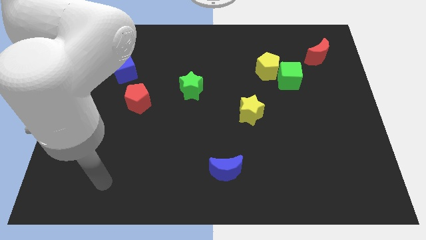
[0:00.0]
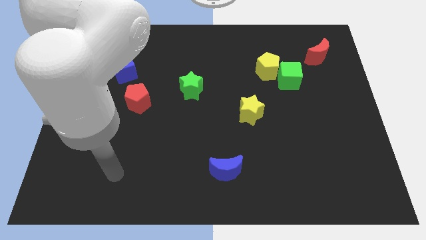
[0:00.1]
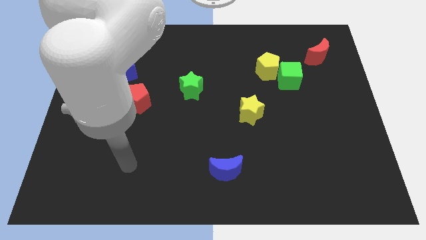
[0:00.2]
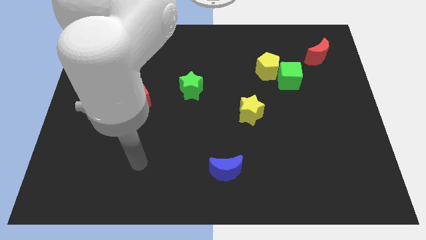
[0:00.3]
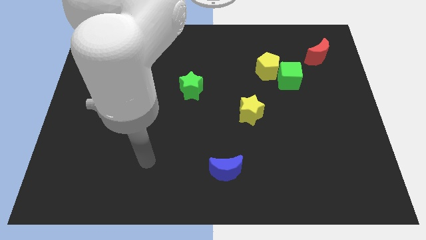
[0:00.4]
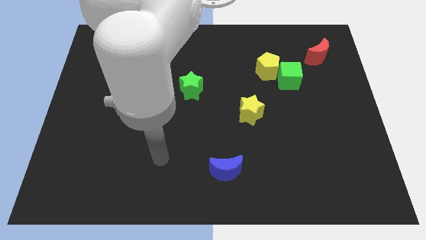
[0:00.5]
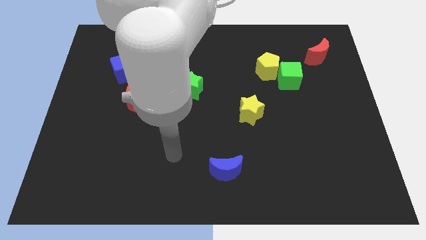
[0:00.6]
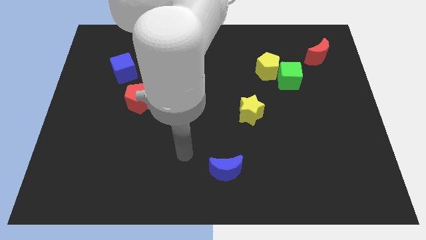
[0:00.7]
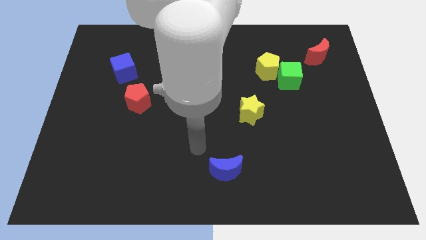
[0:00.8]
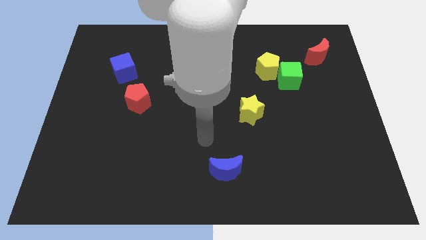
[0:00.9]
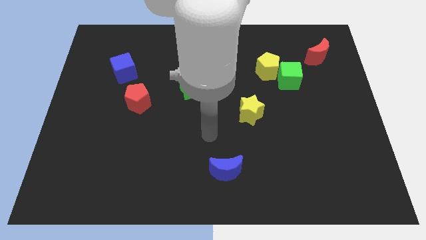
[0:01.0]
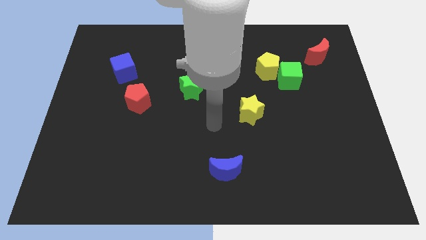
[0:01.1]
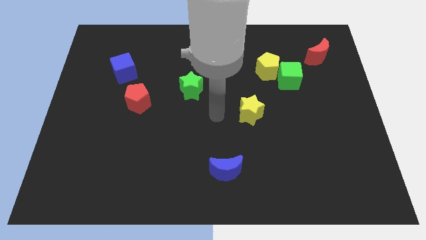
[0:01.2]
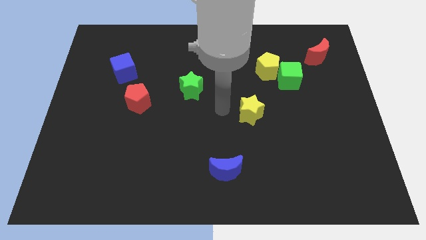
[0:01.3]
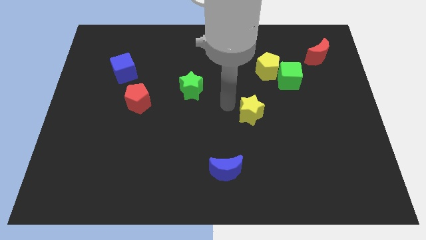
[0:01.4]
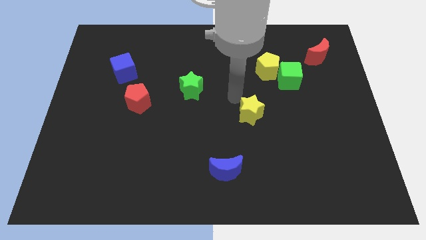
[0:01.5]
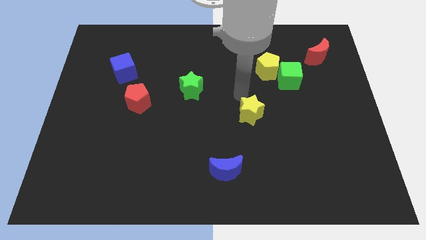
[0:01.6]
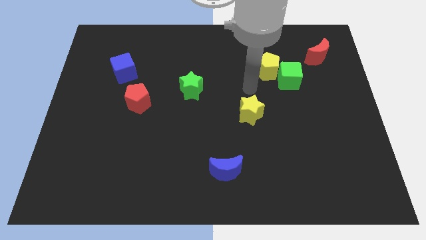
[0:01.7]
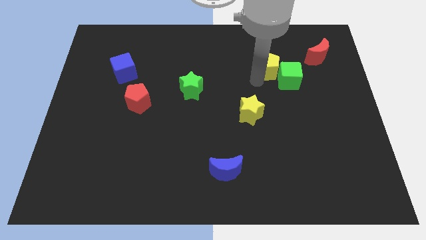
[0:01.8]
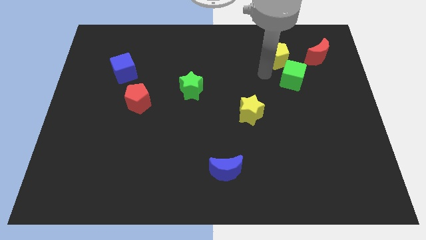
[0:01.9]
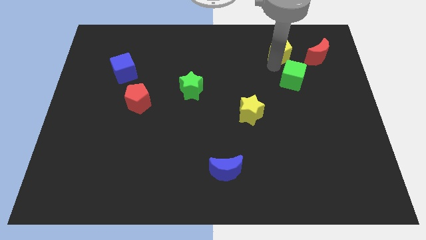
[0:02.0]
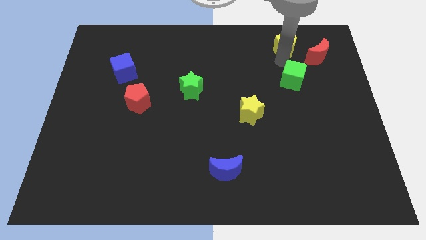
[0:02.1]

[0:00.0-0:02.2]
separate the green cube from the yellow pentagon

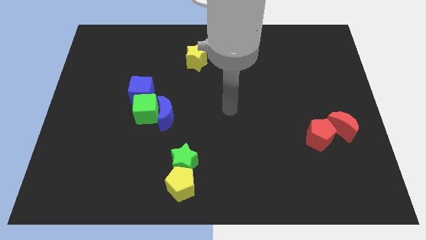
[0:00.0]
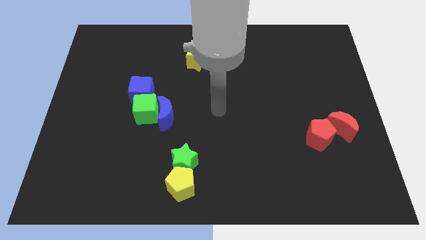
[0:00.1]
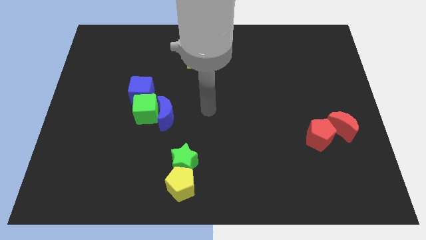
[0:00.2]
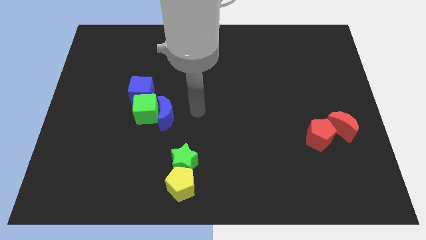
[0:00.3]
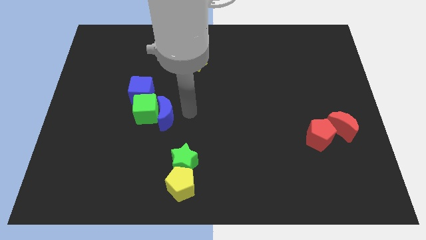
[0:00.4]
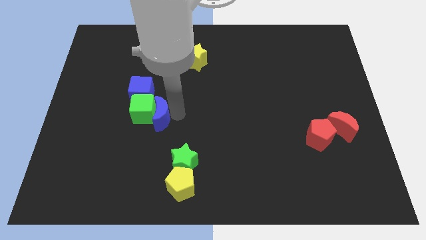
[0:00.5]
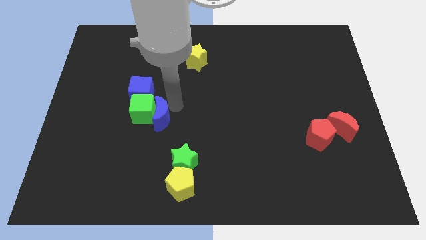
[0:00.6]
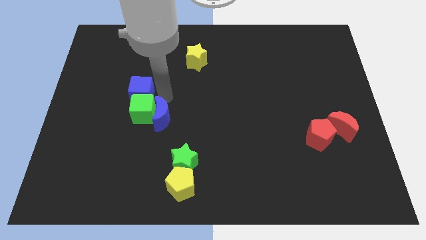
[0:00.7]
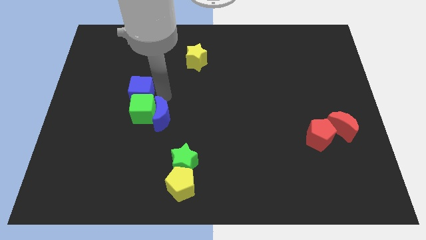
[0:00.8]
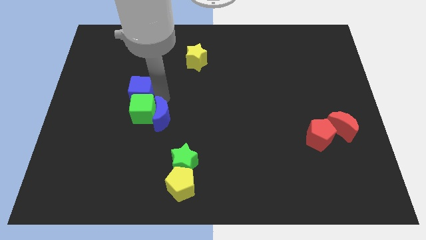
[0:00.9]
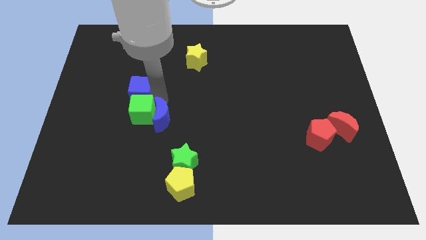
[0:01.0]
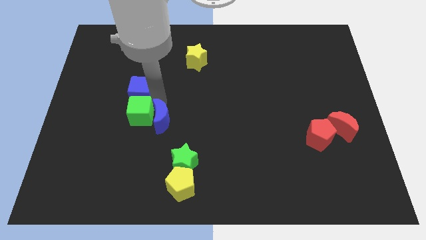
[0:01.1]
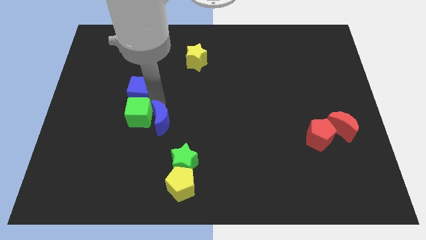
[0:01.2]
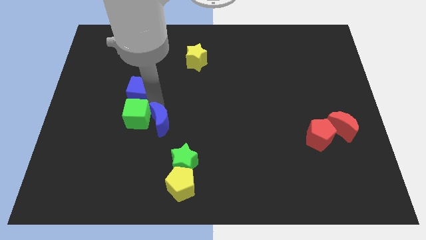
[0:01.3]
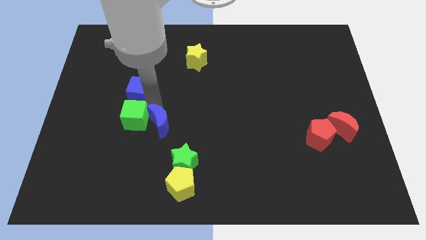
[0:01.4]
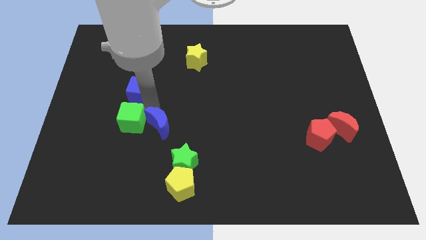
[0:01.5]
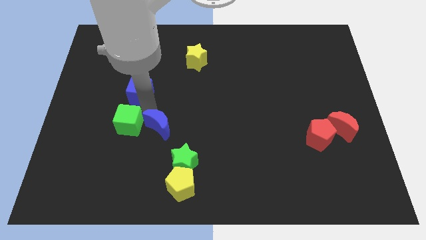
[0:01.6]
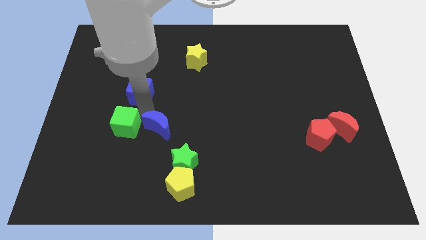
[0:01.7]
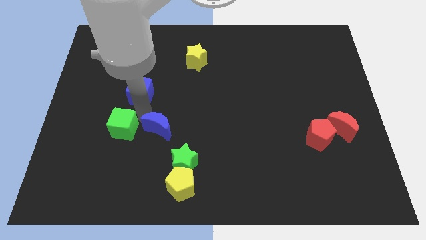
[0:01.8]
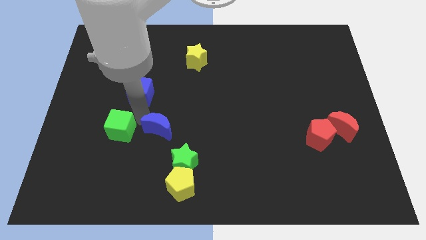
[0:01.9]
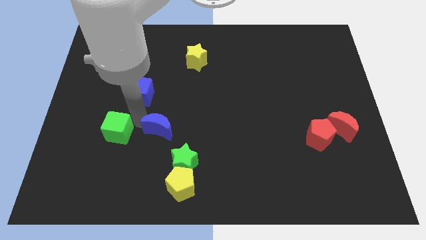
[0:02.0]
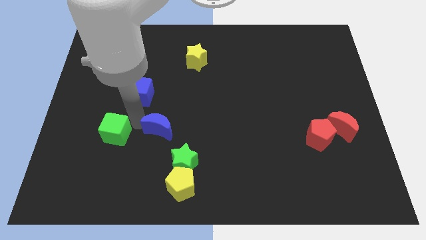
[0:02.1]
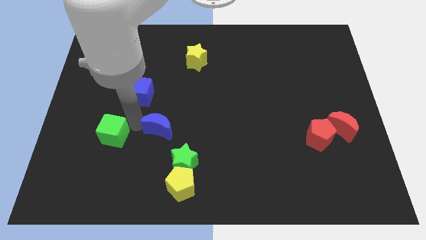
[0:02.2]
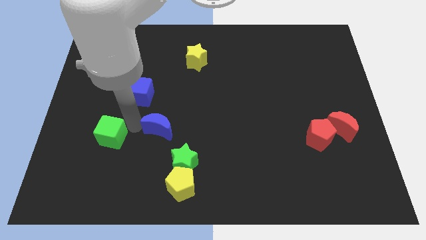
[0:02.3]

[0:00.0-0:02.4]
move the green cube away from the blue moon and blue cube

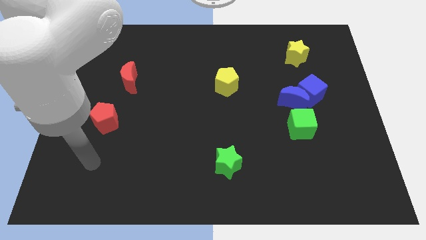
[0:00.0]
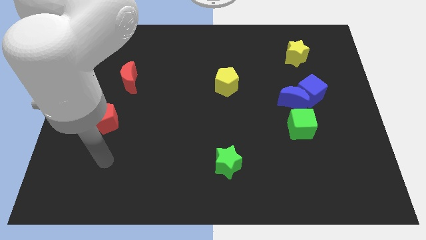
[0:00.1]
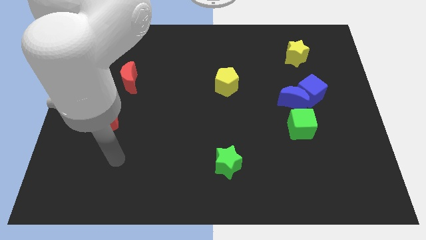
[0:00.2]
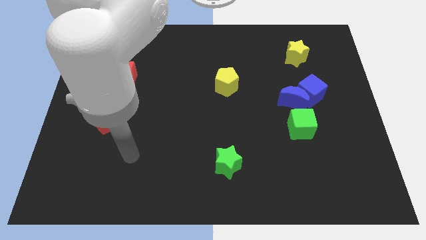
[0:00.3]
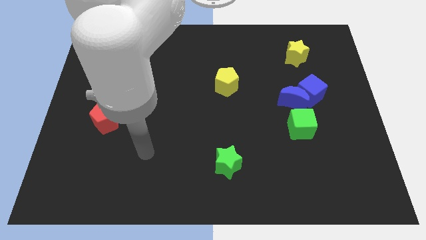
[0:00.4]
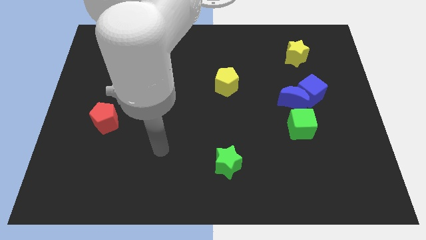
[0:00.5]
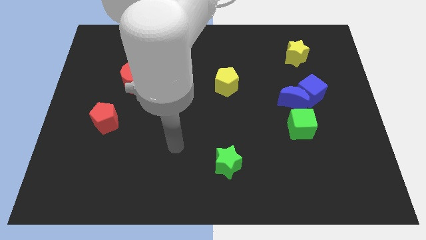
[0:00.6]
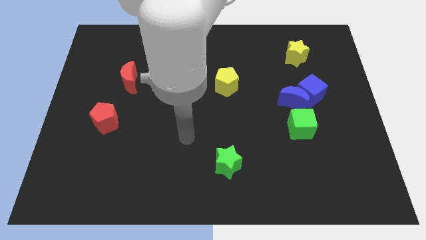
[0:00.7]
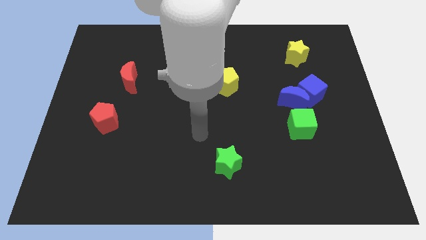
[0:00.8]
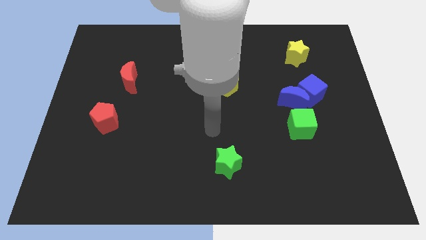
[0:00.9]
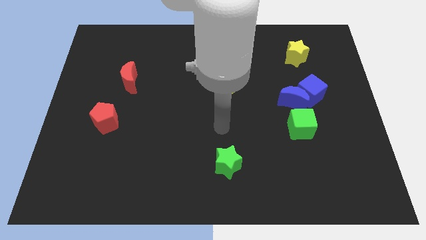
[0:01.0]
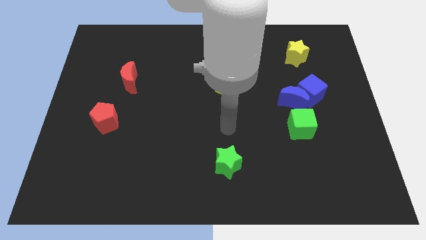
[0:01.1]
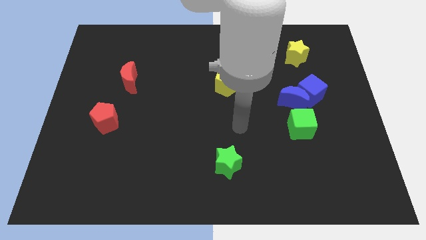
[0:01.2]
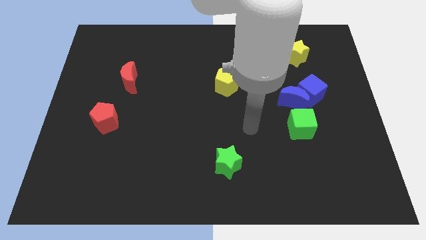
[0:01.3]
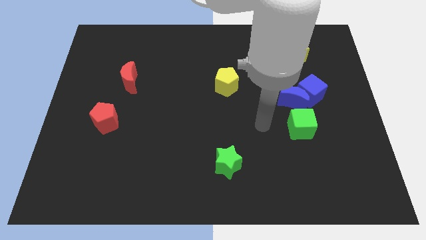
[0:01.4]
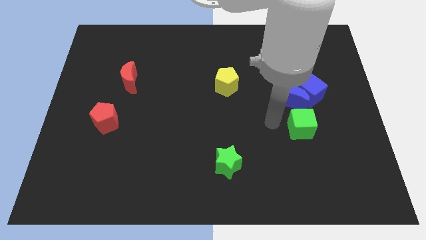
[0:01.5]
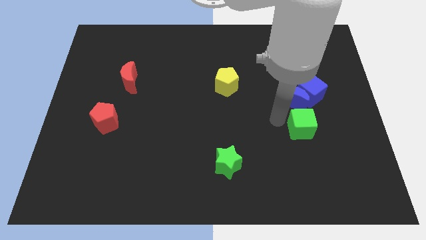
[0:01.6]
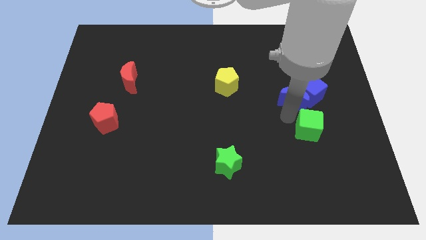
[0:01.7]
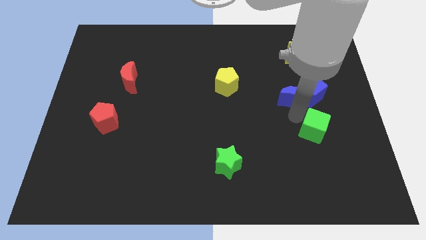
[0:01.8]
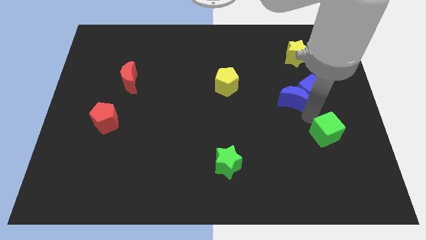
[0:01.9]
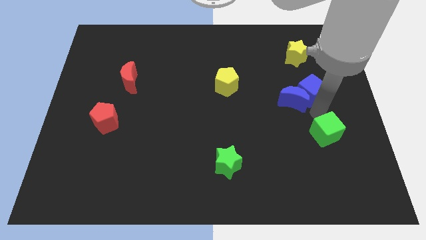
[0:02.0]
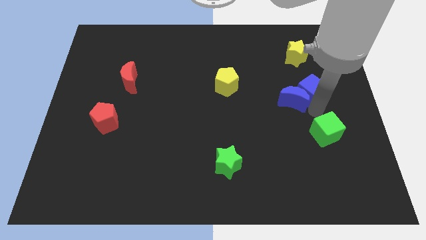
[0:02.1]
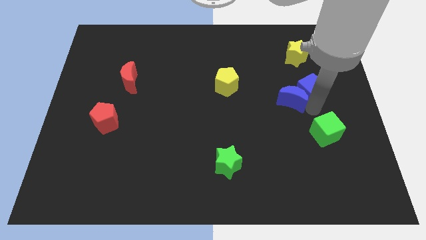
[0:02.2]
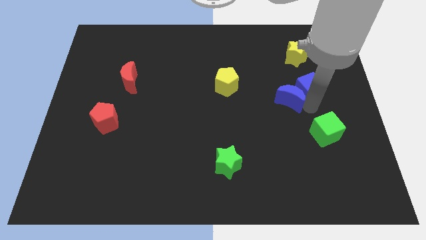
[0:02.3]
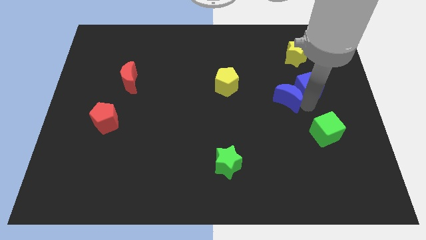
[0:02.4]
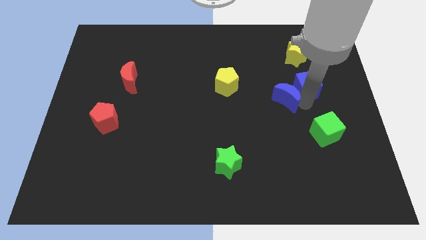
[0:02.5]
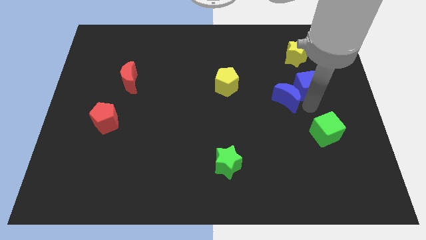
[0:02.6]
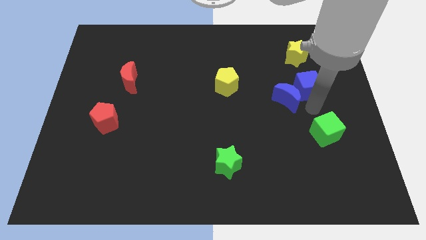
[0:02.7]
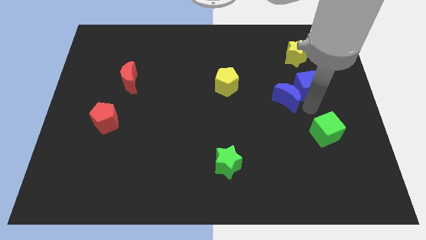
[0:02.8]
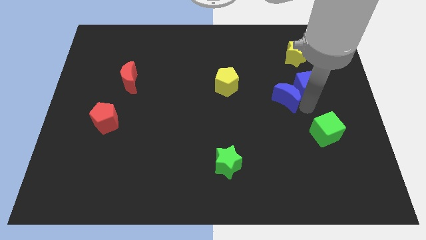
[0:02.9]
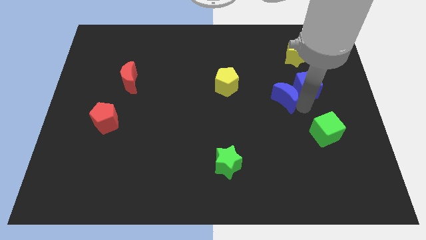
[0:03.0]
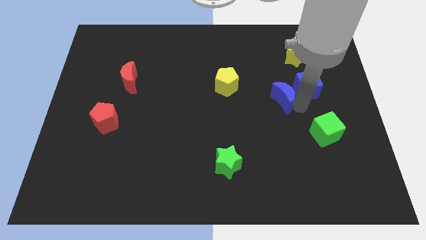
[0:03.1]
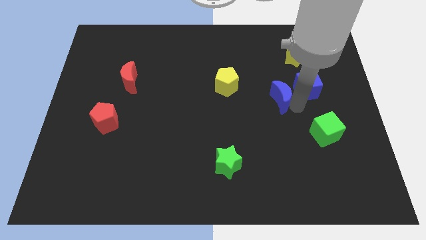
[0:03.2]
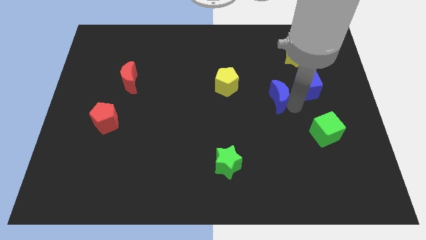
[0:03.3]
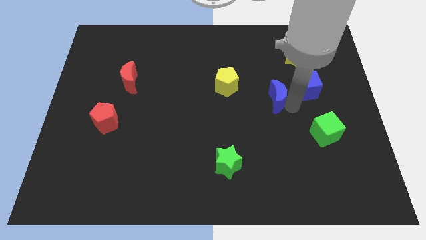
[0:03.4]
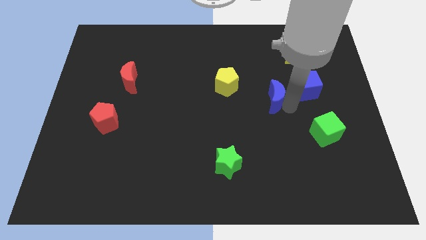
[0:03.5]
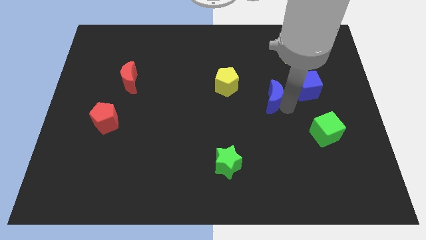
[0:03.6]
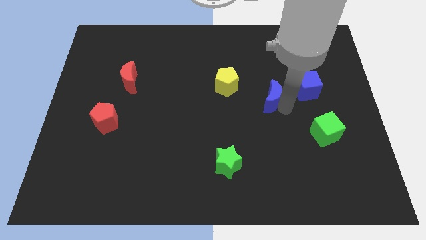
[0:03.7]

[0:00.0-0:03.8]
move the blue moon away from the blue cube and green cube

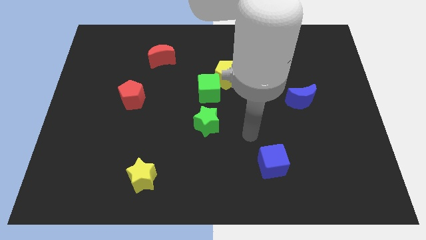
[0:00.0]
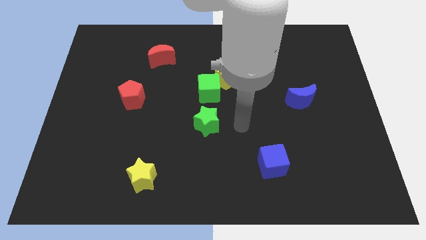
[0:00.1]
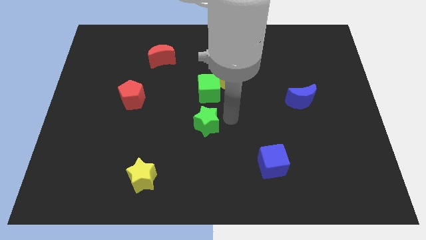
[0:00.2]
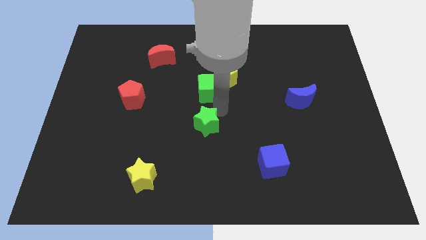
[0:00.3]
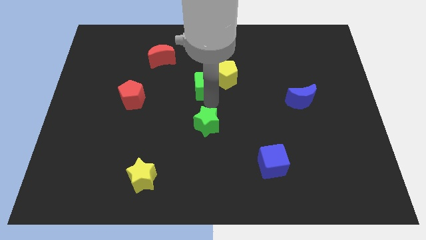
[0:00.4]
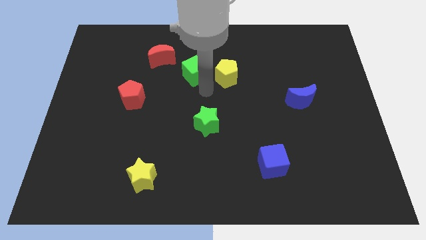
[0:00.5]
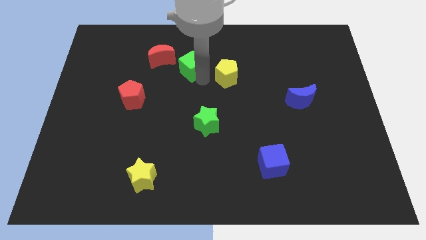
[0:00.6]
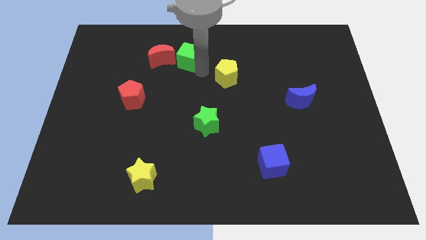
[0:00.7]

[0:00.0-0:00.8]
pull the yellow pentagon apart from the green cube
